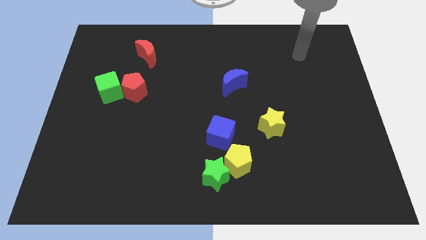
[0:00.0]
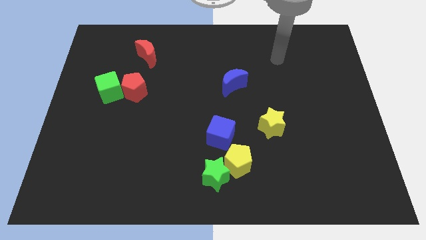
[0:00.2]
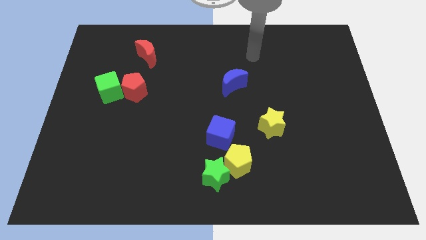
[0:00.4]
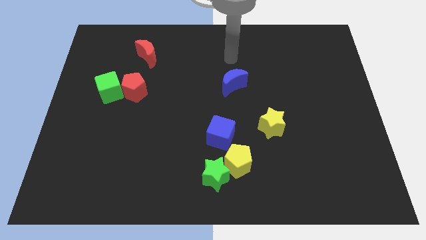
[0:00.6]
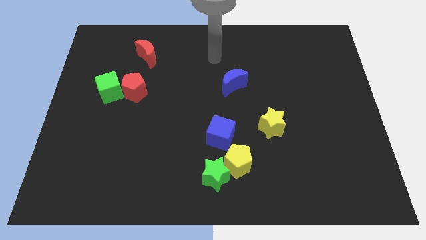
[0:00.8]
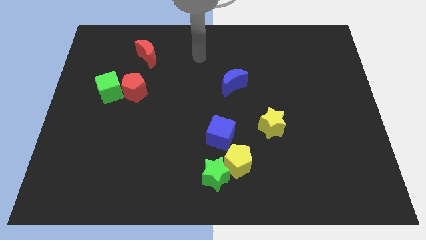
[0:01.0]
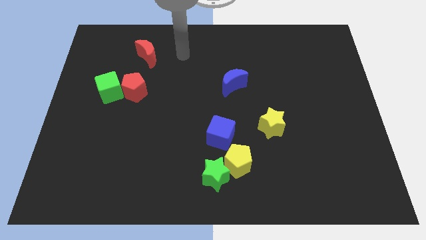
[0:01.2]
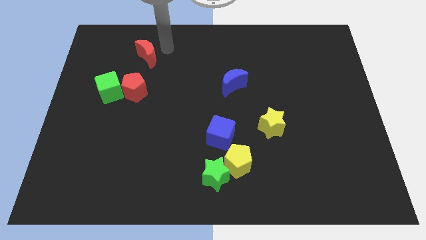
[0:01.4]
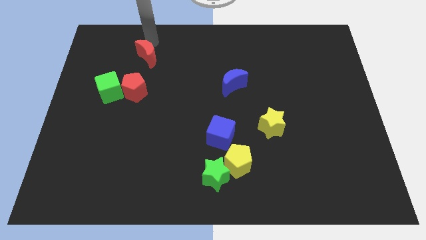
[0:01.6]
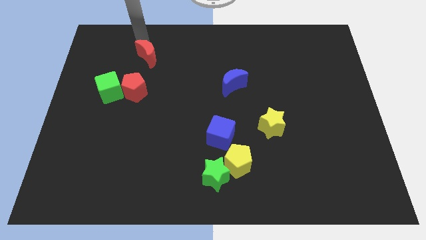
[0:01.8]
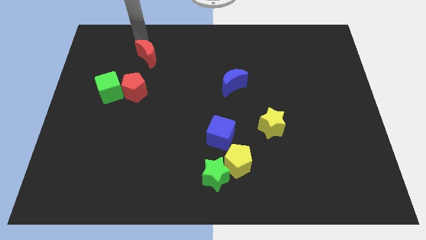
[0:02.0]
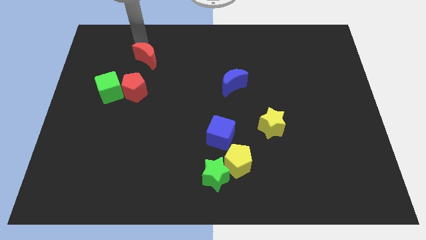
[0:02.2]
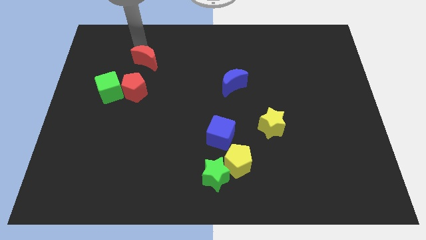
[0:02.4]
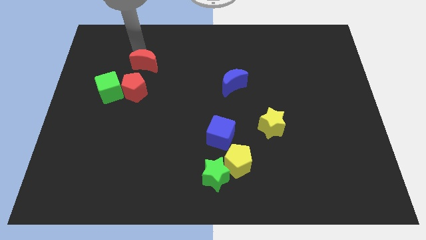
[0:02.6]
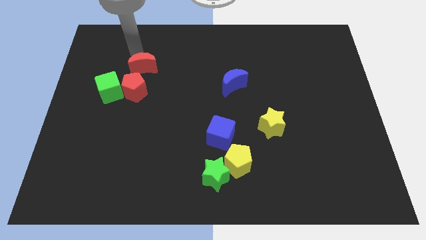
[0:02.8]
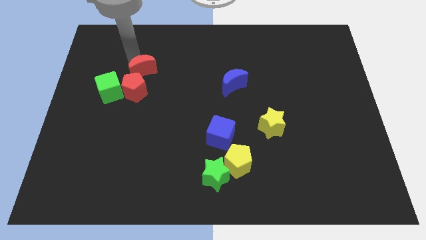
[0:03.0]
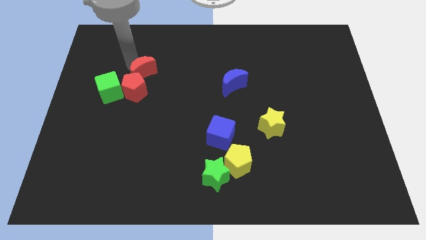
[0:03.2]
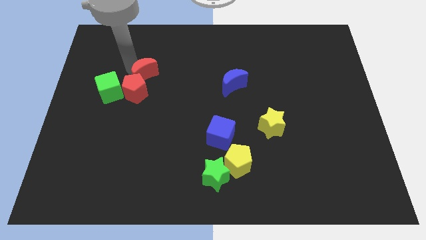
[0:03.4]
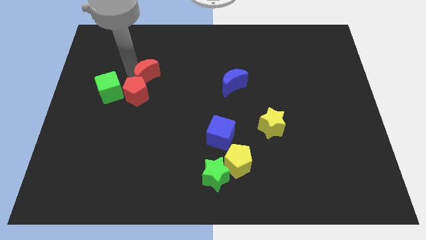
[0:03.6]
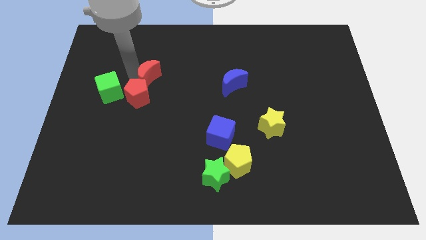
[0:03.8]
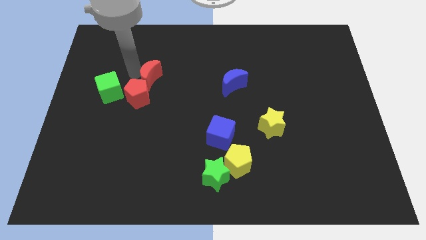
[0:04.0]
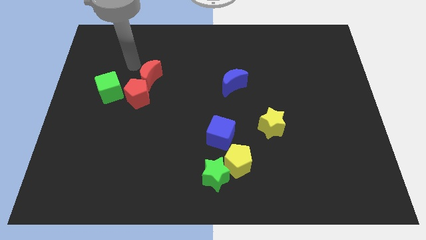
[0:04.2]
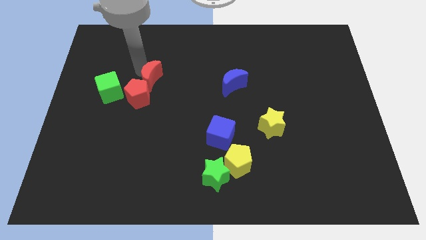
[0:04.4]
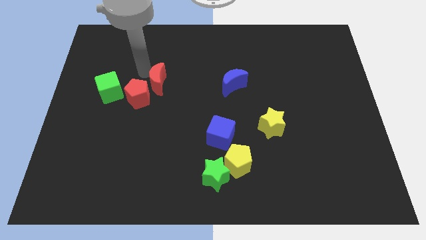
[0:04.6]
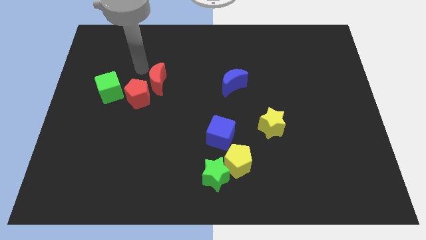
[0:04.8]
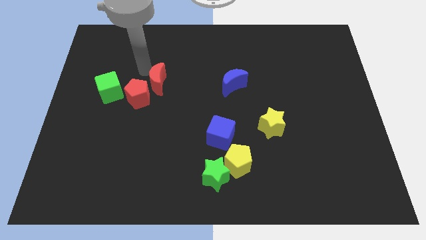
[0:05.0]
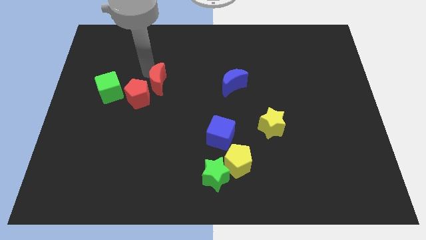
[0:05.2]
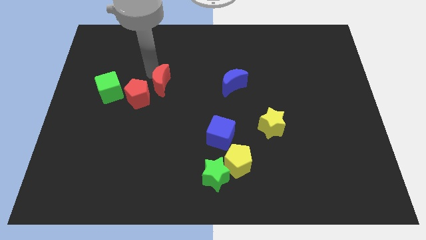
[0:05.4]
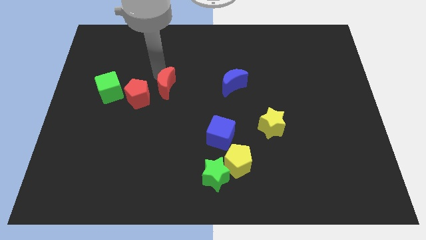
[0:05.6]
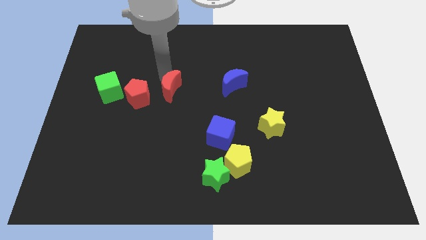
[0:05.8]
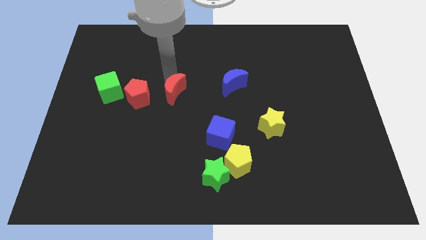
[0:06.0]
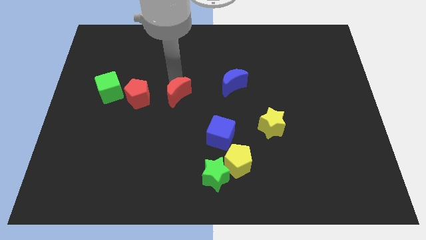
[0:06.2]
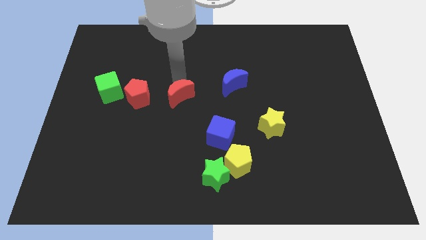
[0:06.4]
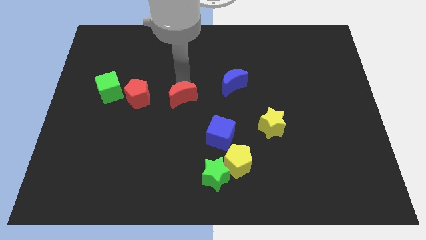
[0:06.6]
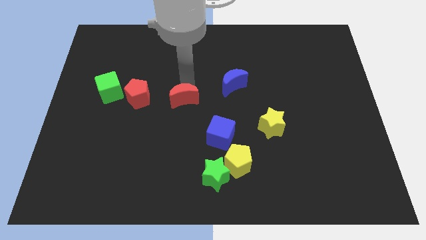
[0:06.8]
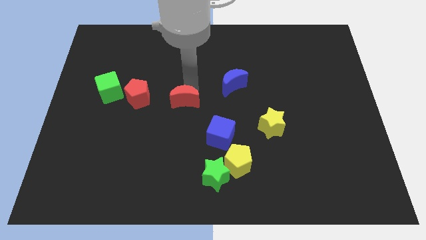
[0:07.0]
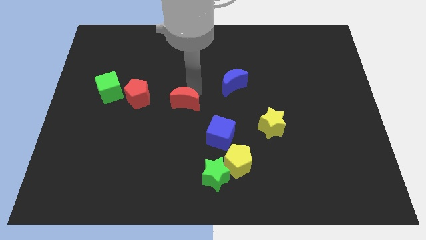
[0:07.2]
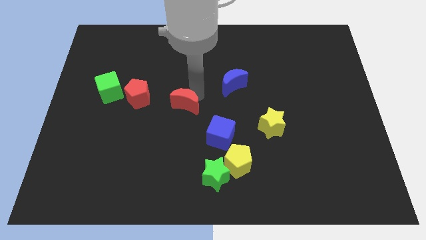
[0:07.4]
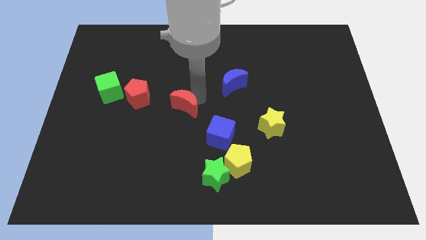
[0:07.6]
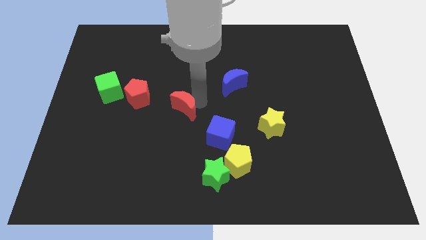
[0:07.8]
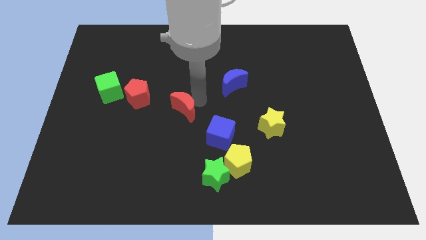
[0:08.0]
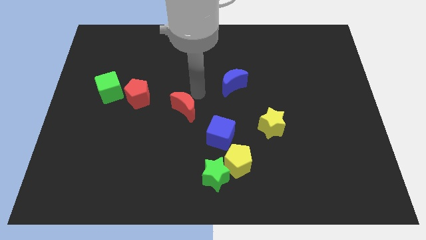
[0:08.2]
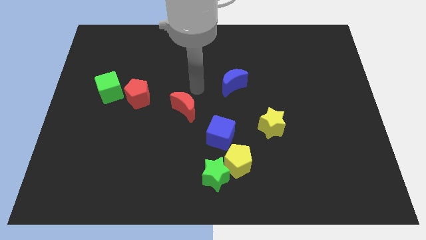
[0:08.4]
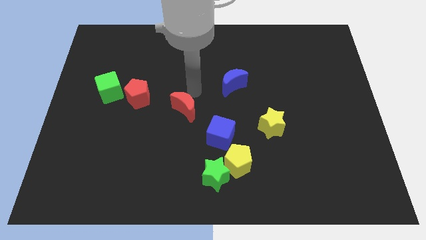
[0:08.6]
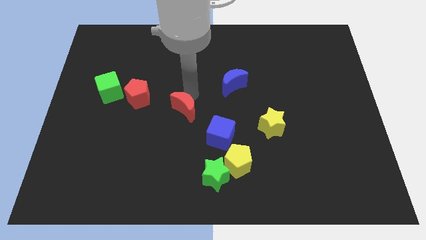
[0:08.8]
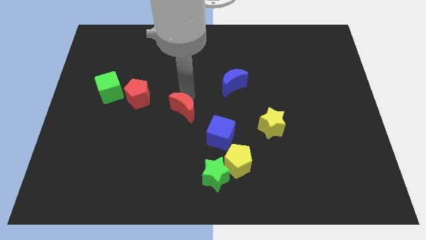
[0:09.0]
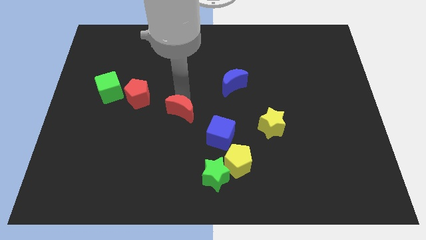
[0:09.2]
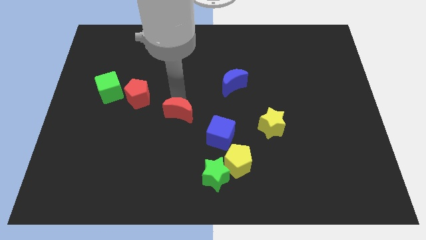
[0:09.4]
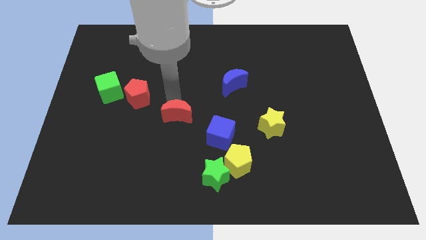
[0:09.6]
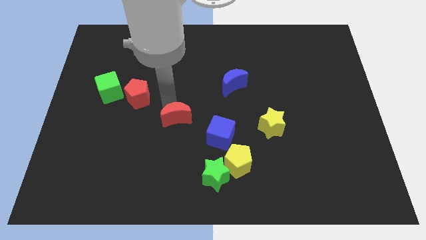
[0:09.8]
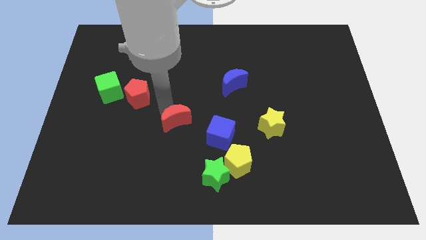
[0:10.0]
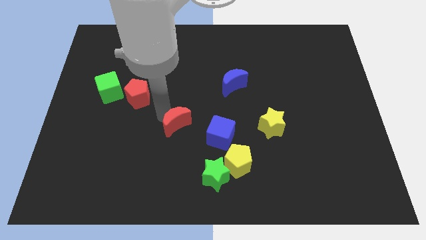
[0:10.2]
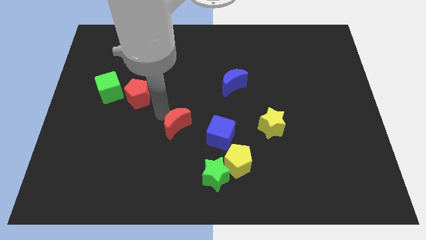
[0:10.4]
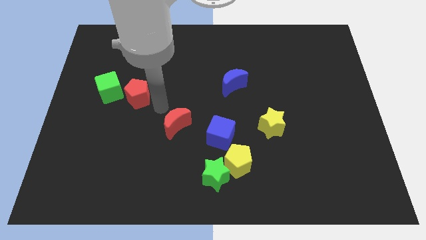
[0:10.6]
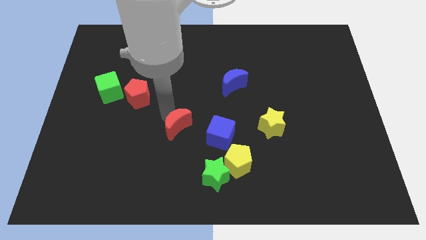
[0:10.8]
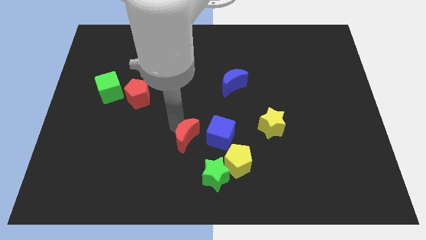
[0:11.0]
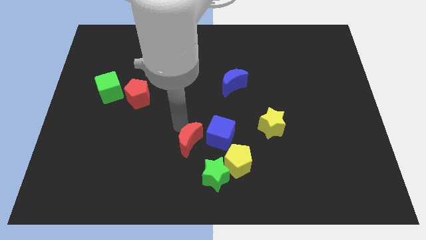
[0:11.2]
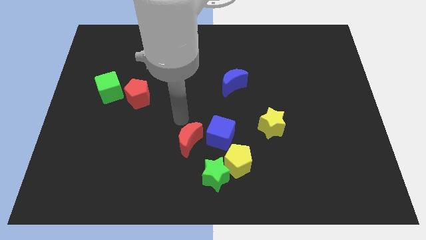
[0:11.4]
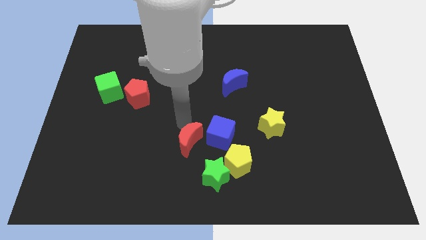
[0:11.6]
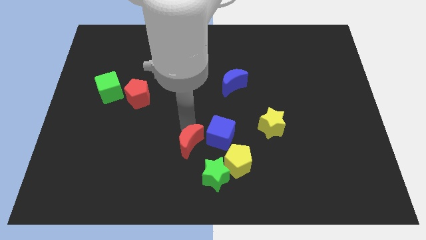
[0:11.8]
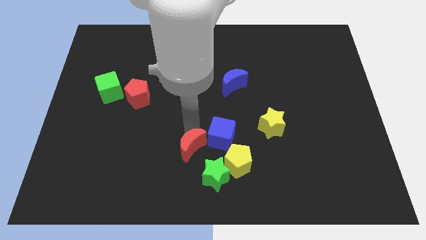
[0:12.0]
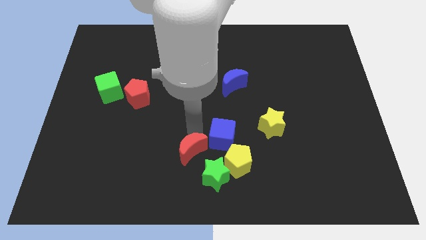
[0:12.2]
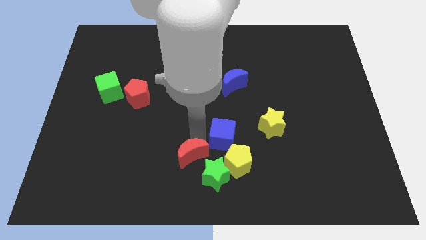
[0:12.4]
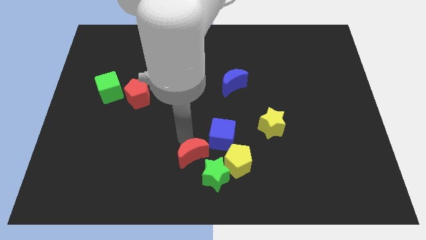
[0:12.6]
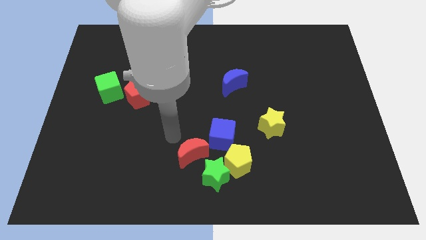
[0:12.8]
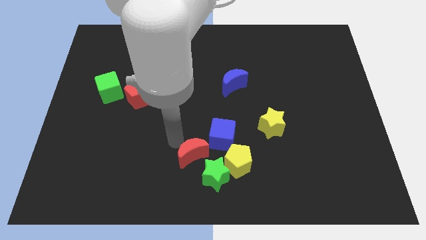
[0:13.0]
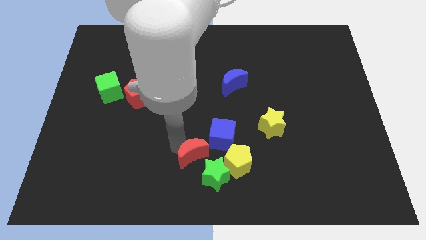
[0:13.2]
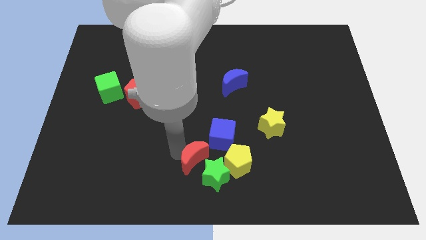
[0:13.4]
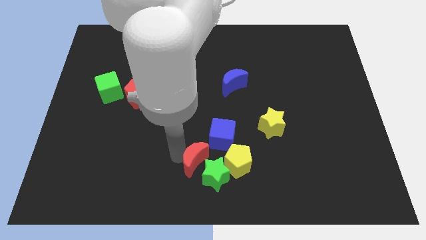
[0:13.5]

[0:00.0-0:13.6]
put the red moon towards the green star

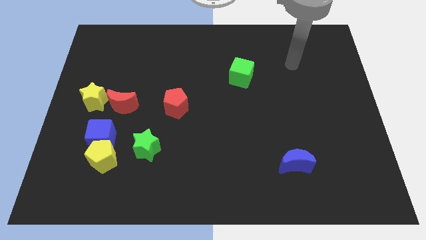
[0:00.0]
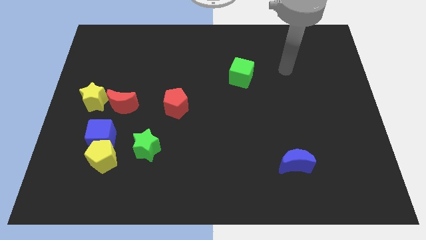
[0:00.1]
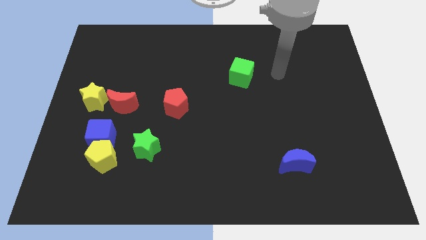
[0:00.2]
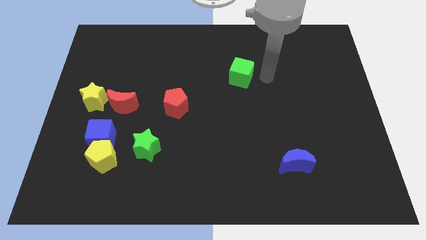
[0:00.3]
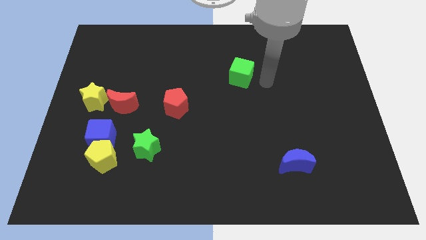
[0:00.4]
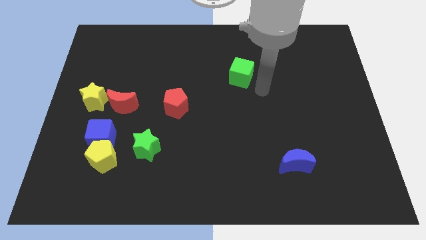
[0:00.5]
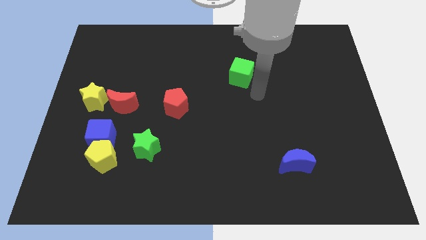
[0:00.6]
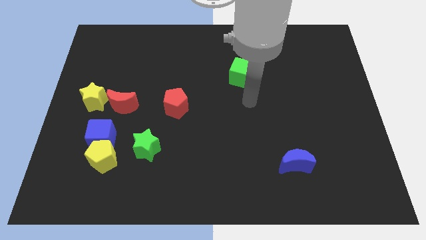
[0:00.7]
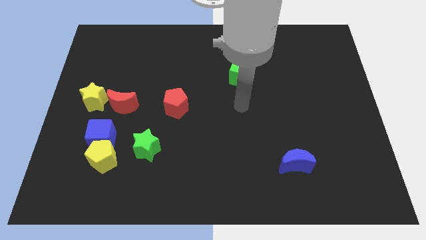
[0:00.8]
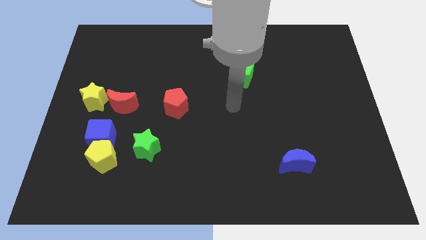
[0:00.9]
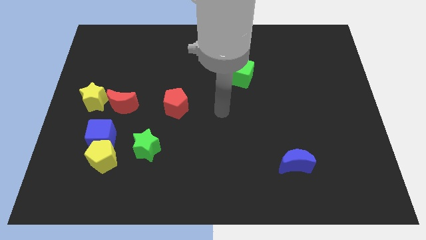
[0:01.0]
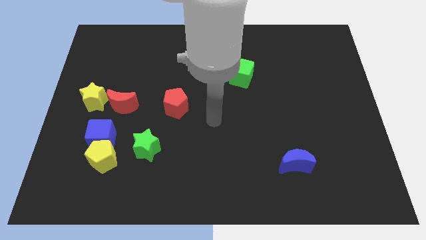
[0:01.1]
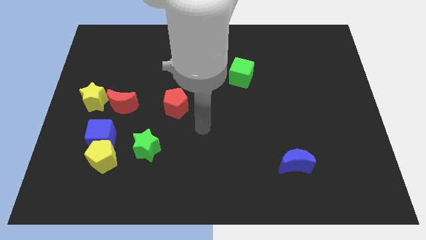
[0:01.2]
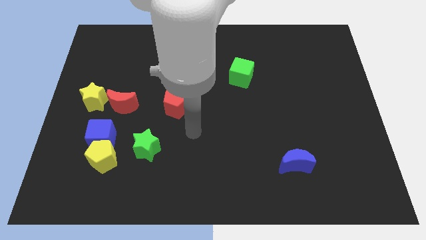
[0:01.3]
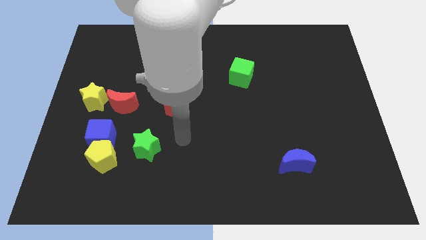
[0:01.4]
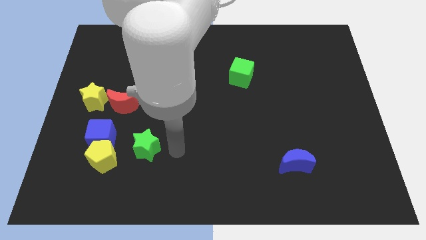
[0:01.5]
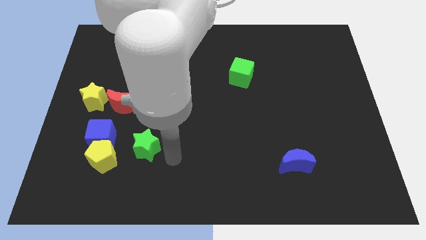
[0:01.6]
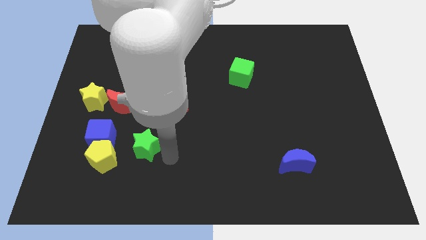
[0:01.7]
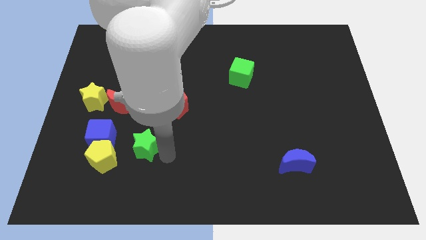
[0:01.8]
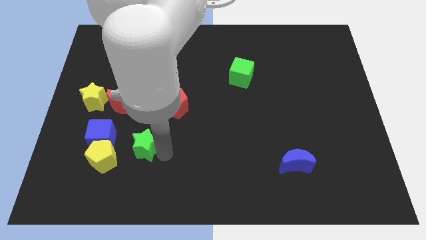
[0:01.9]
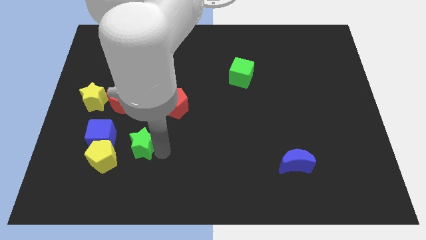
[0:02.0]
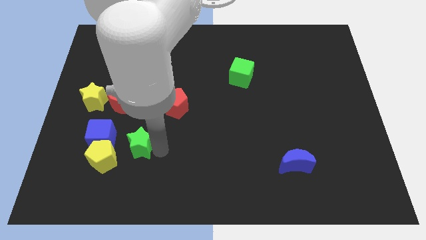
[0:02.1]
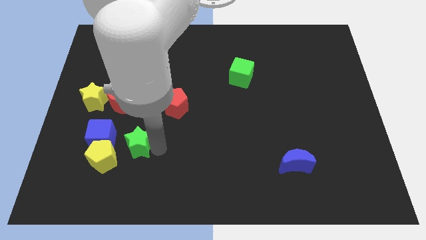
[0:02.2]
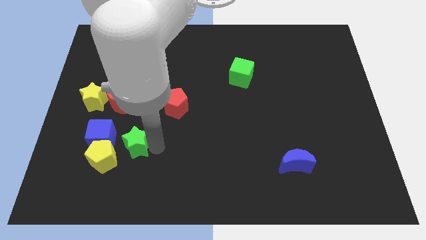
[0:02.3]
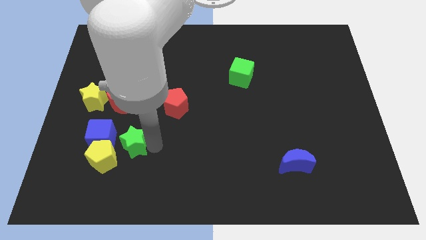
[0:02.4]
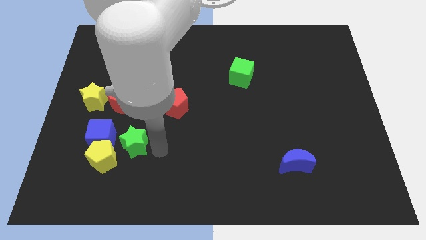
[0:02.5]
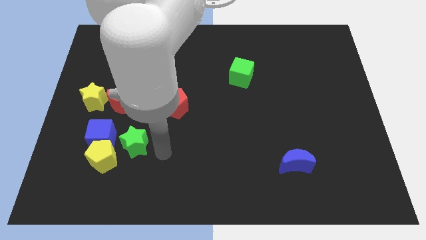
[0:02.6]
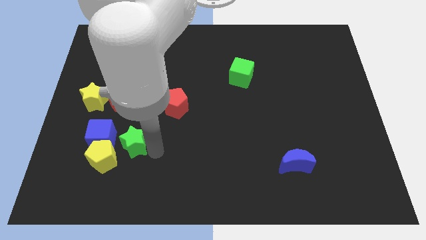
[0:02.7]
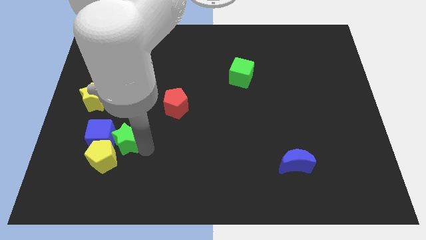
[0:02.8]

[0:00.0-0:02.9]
push the green star close to the blue cube
